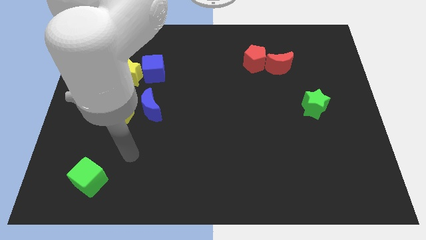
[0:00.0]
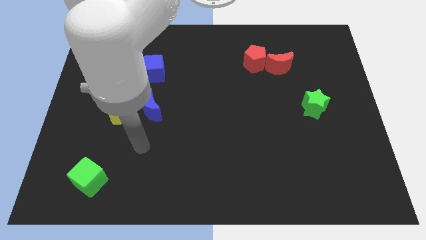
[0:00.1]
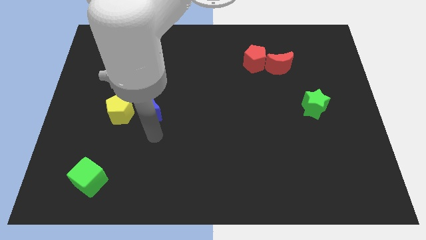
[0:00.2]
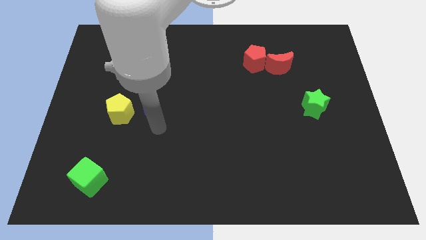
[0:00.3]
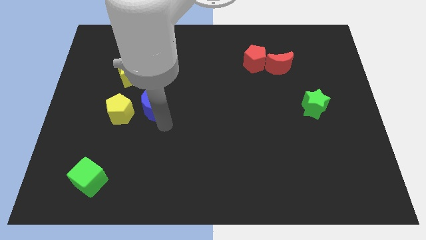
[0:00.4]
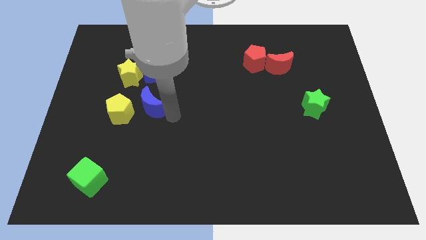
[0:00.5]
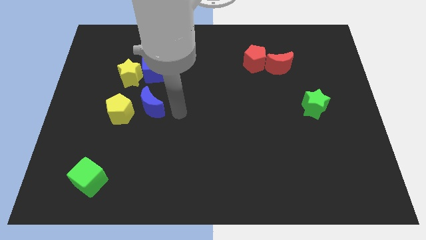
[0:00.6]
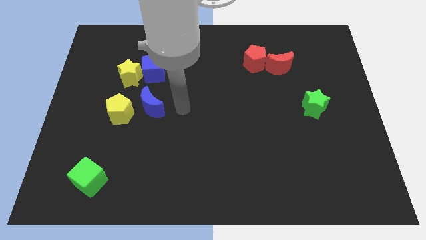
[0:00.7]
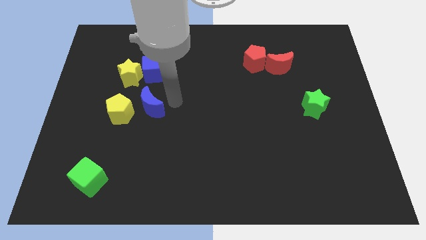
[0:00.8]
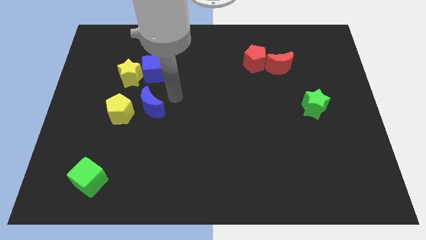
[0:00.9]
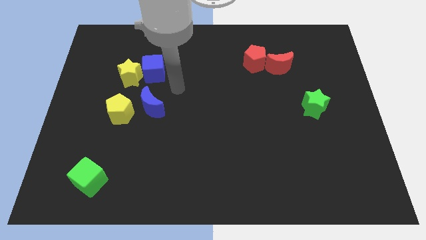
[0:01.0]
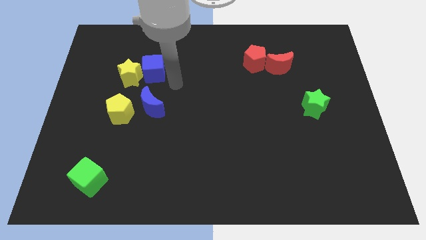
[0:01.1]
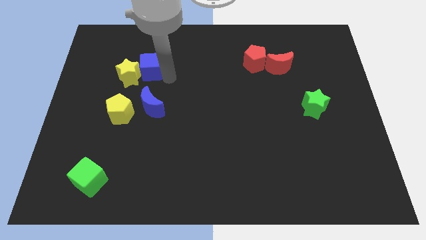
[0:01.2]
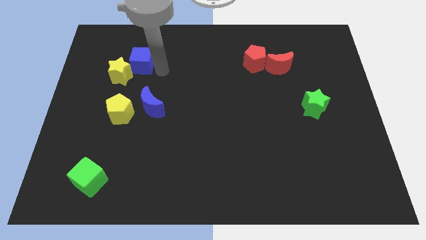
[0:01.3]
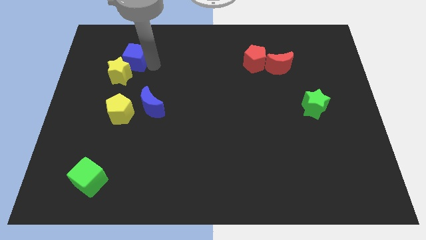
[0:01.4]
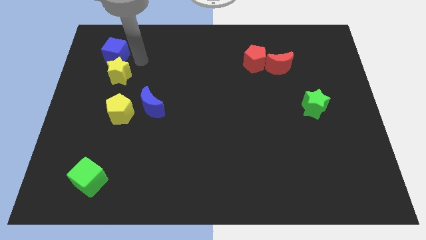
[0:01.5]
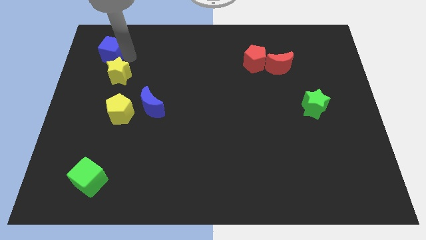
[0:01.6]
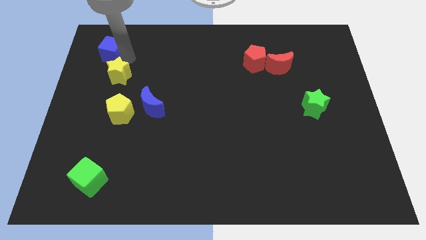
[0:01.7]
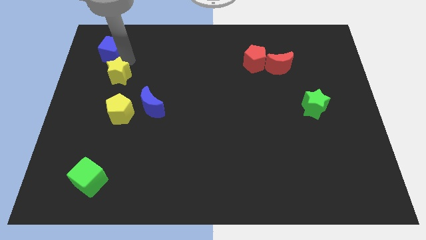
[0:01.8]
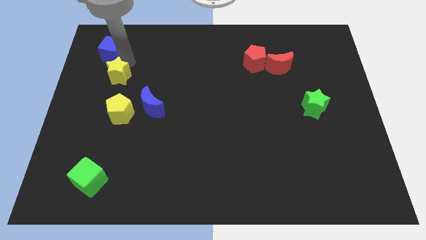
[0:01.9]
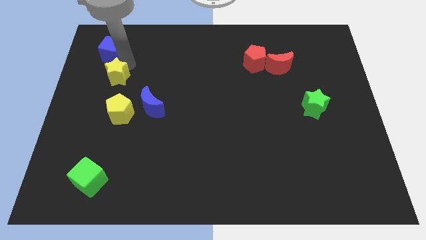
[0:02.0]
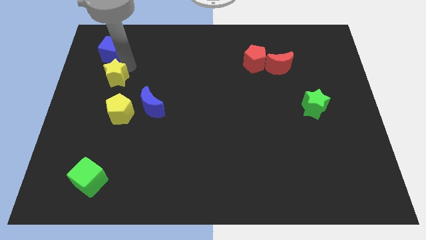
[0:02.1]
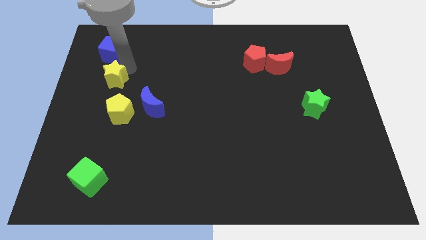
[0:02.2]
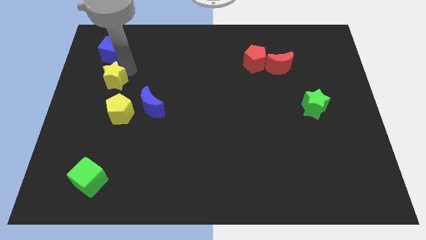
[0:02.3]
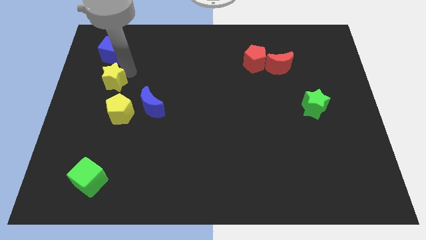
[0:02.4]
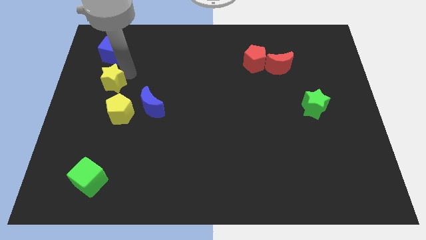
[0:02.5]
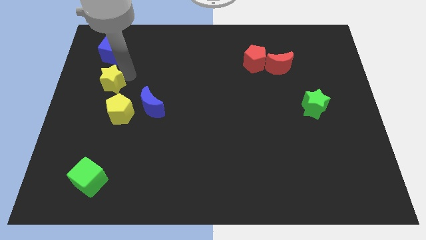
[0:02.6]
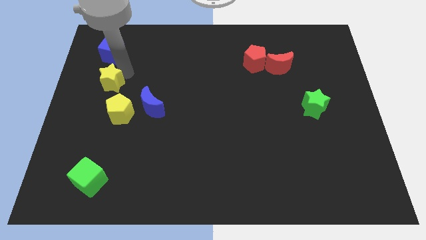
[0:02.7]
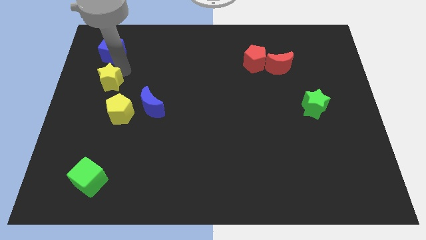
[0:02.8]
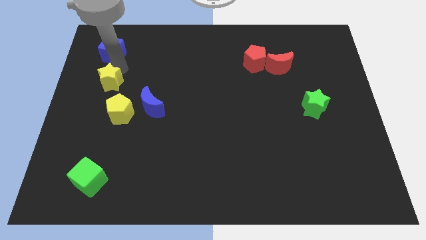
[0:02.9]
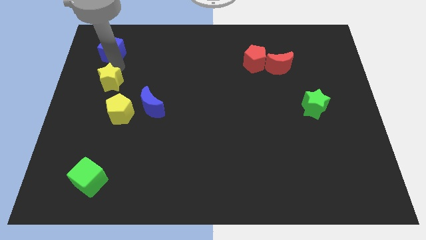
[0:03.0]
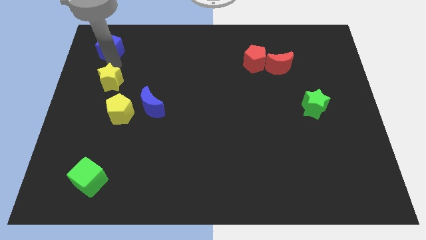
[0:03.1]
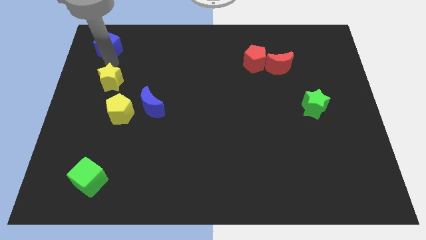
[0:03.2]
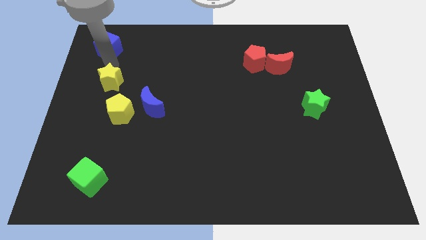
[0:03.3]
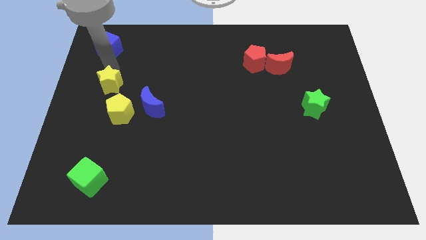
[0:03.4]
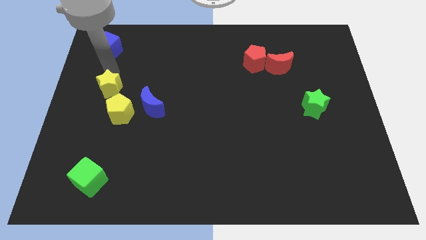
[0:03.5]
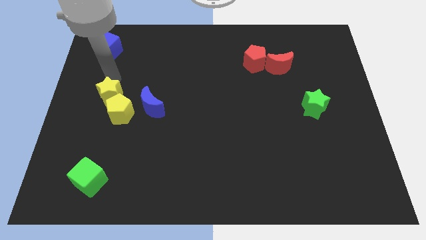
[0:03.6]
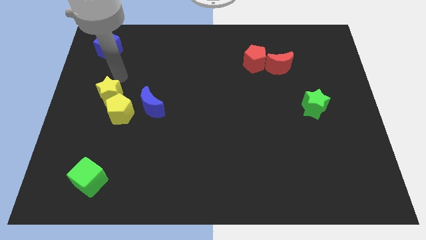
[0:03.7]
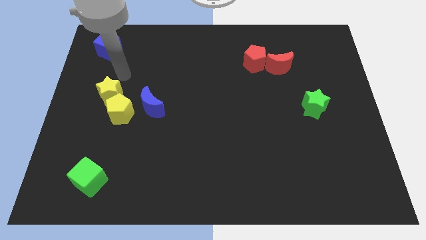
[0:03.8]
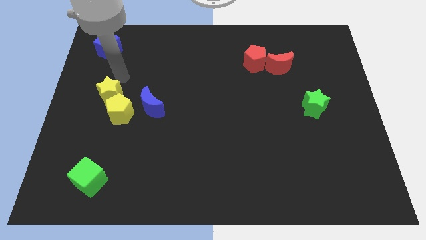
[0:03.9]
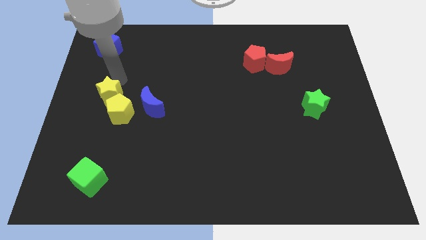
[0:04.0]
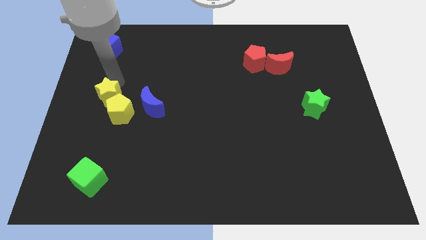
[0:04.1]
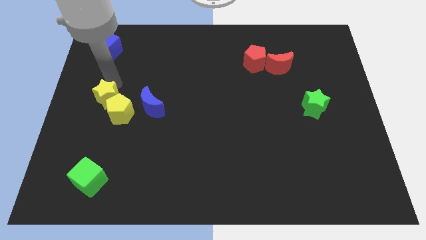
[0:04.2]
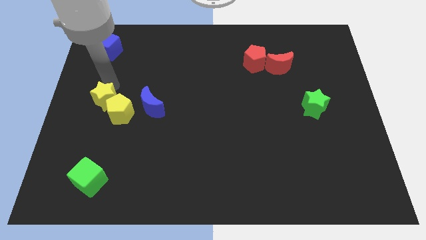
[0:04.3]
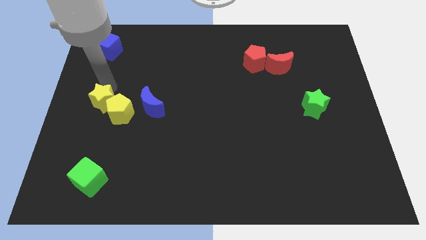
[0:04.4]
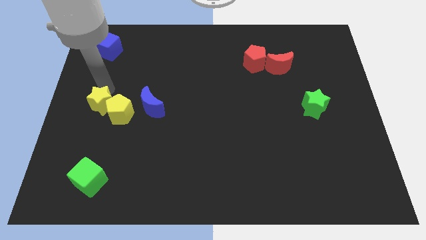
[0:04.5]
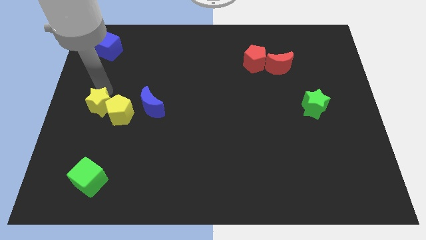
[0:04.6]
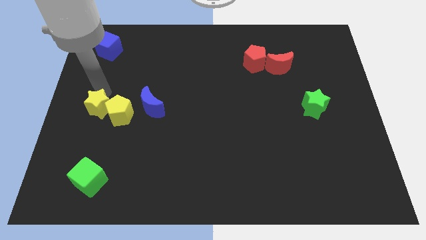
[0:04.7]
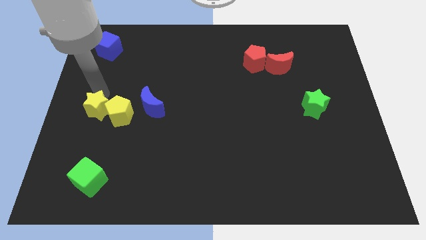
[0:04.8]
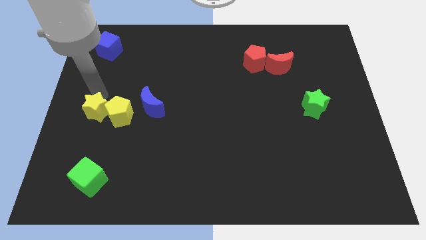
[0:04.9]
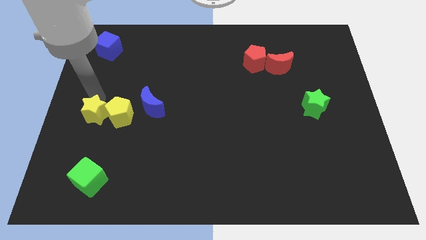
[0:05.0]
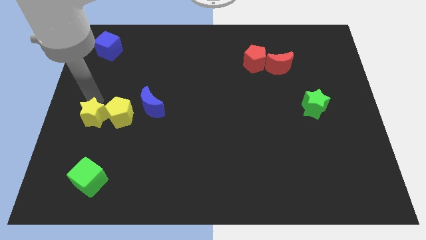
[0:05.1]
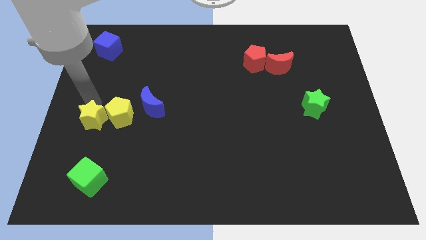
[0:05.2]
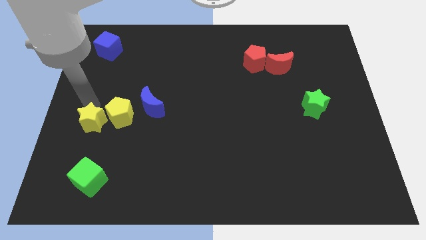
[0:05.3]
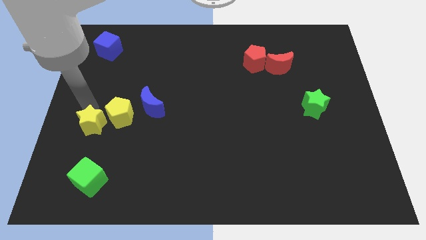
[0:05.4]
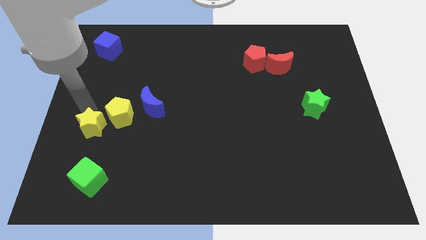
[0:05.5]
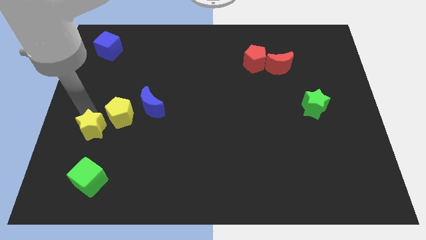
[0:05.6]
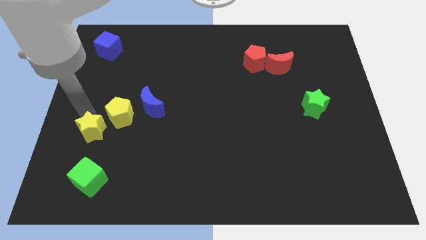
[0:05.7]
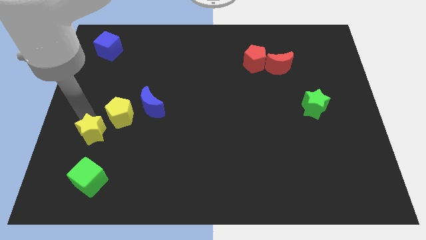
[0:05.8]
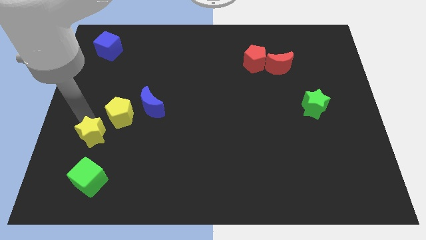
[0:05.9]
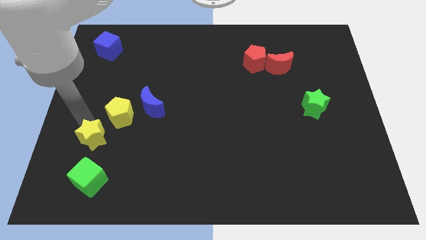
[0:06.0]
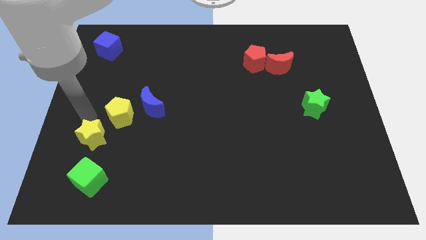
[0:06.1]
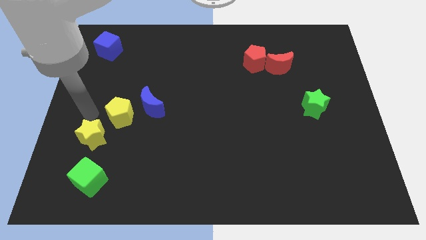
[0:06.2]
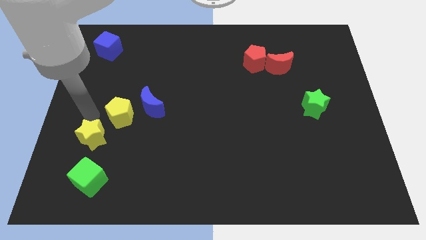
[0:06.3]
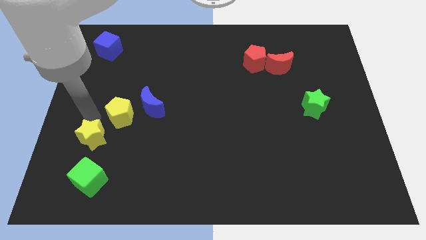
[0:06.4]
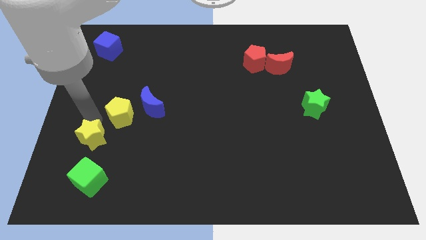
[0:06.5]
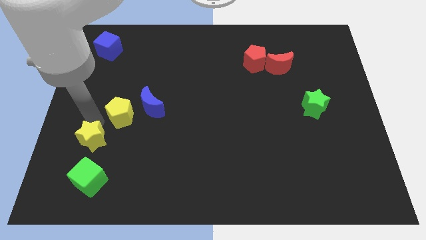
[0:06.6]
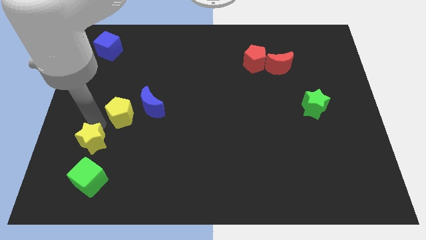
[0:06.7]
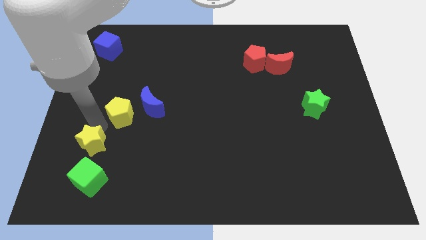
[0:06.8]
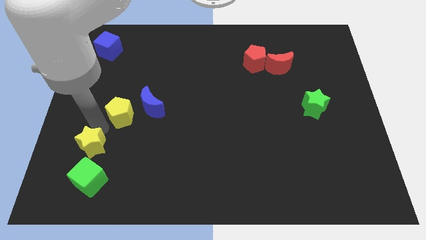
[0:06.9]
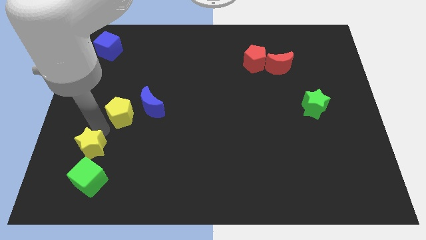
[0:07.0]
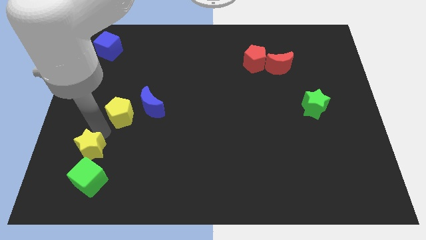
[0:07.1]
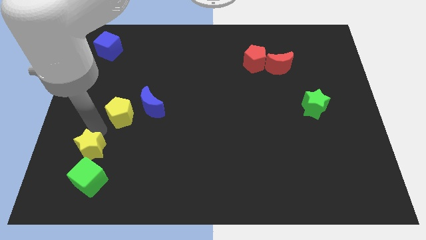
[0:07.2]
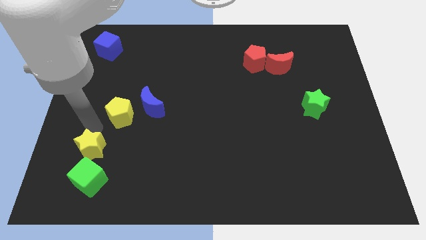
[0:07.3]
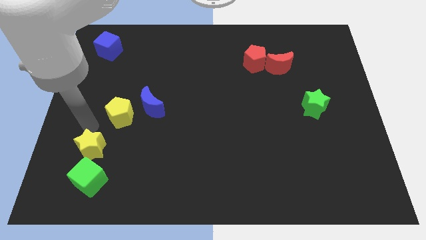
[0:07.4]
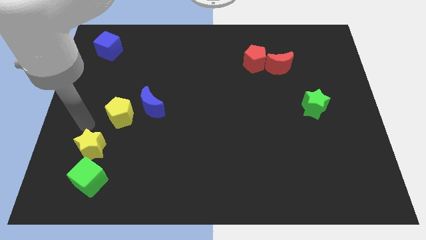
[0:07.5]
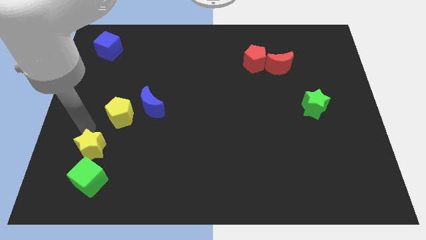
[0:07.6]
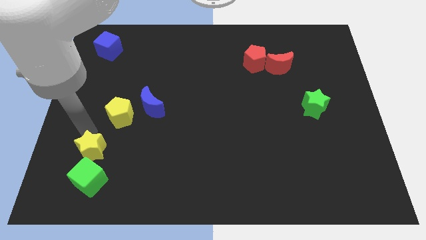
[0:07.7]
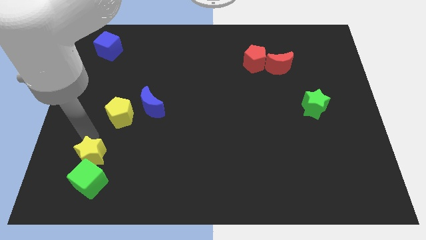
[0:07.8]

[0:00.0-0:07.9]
put the yellow star towards the green cube
